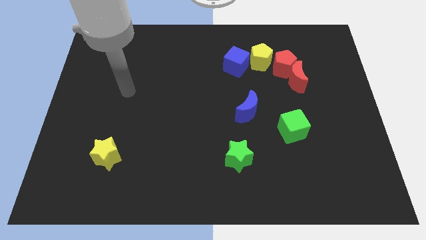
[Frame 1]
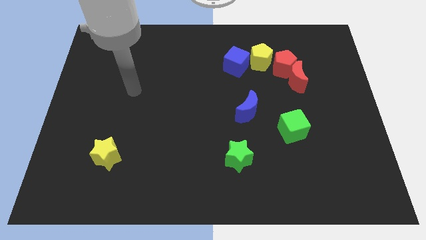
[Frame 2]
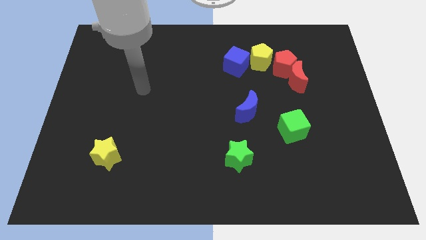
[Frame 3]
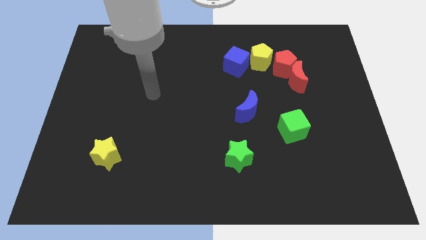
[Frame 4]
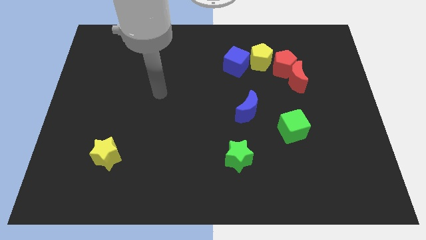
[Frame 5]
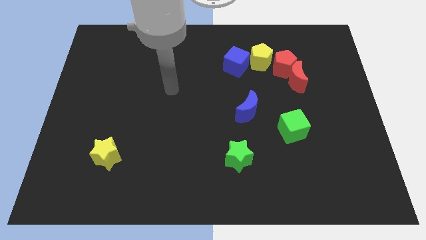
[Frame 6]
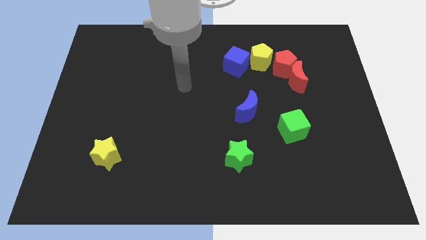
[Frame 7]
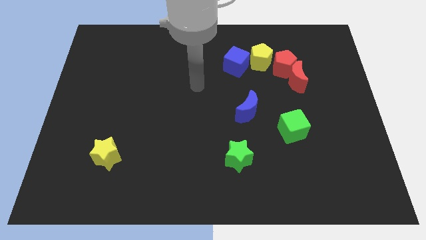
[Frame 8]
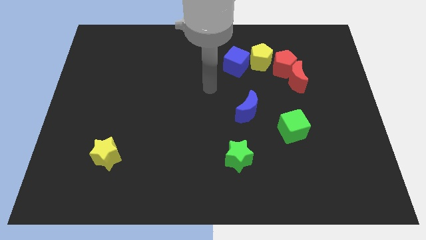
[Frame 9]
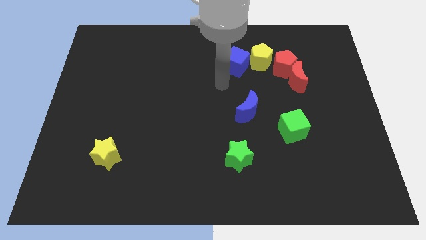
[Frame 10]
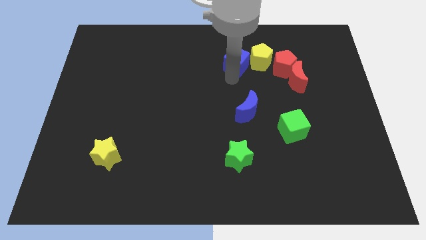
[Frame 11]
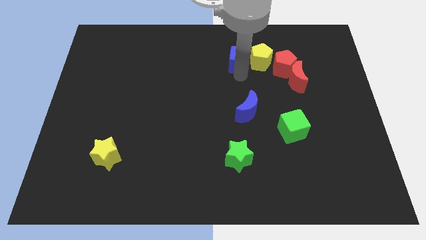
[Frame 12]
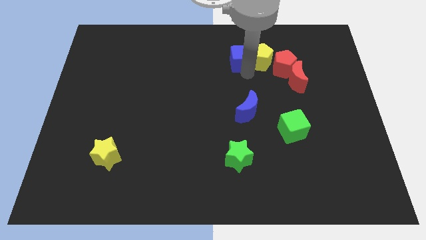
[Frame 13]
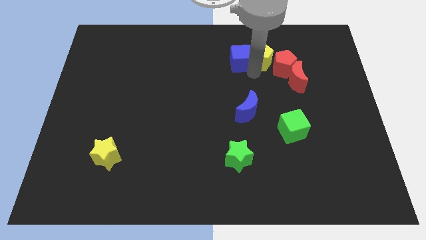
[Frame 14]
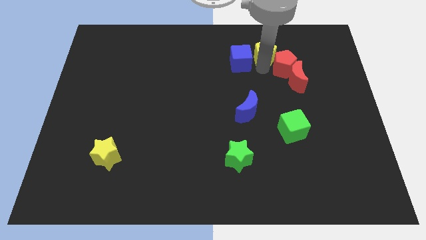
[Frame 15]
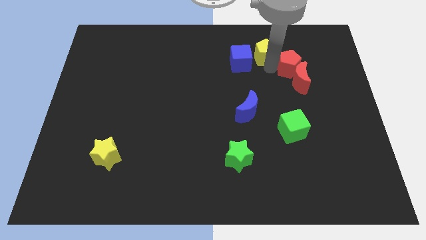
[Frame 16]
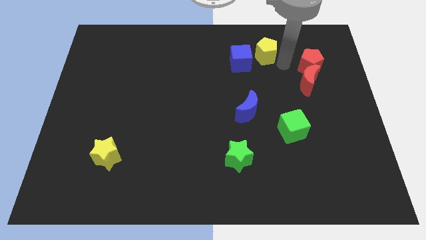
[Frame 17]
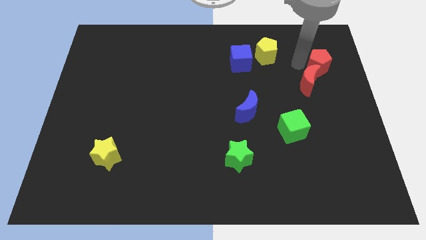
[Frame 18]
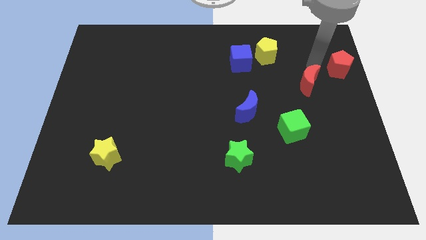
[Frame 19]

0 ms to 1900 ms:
pull the red moon apart from the red pentagon

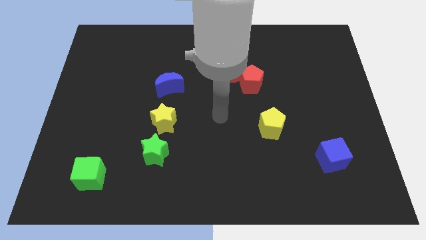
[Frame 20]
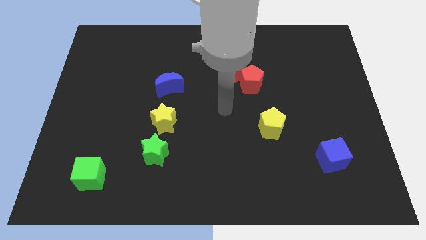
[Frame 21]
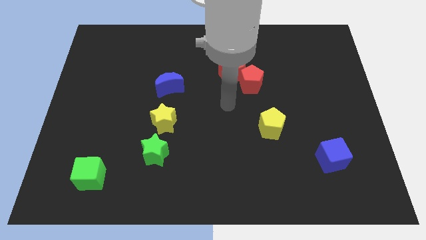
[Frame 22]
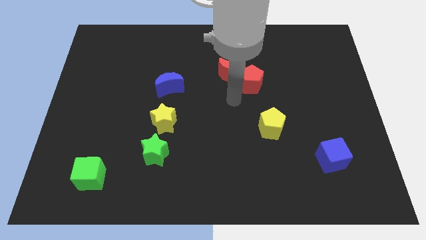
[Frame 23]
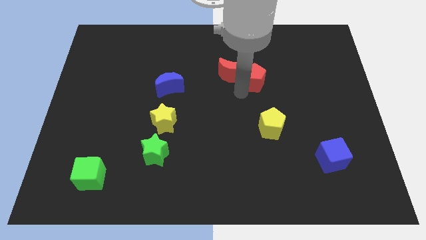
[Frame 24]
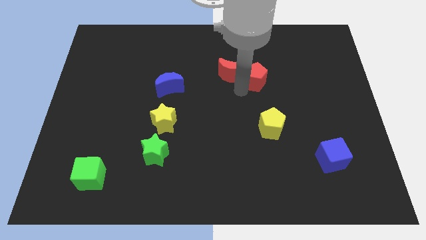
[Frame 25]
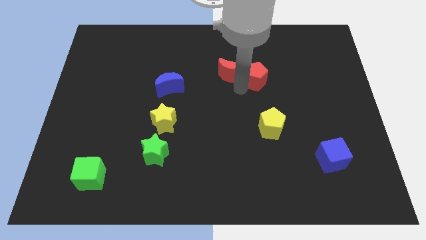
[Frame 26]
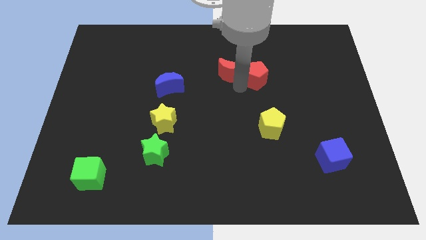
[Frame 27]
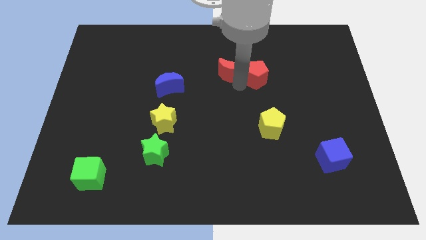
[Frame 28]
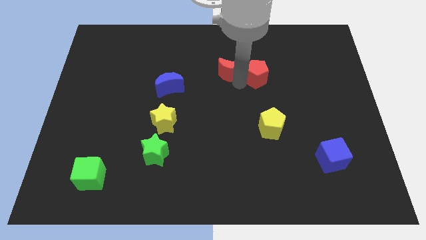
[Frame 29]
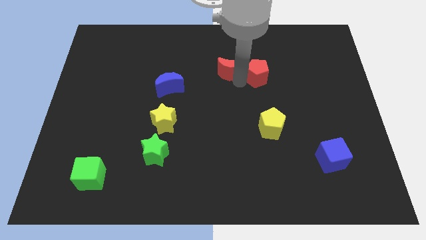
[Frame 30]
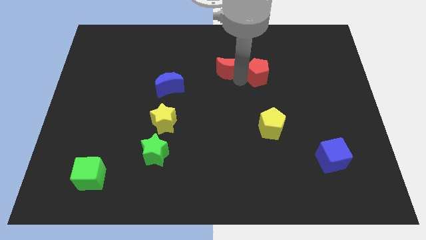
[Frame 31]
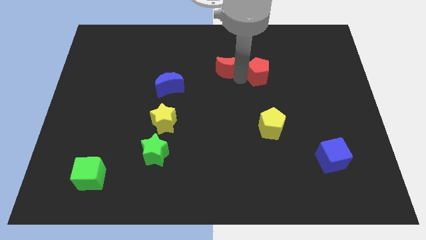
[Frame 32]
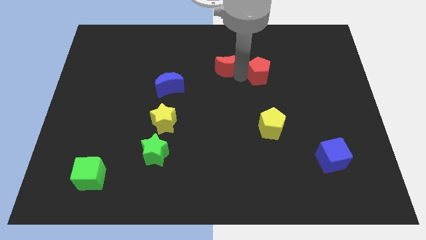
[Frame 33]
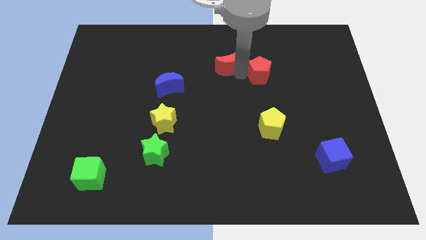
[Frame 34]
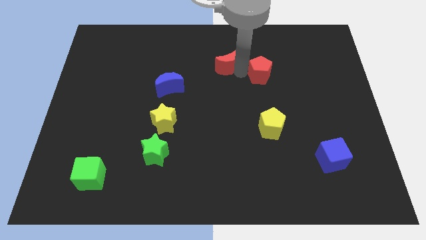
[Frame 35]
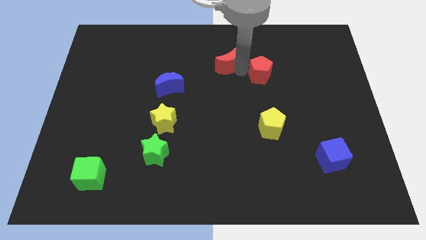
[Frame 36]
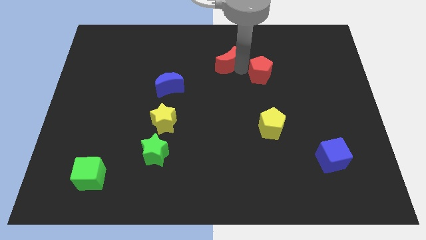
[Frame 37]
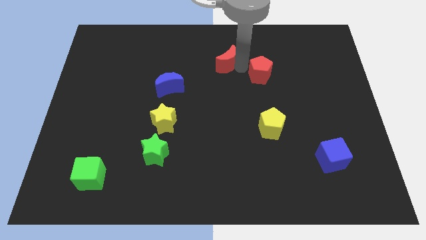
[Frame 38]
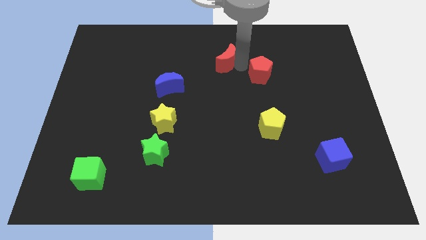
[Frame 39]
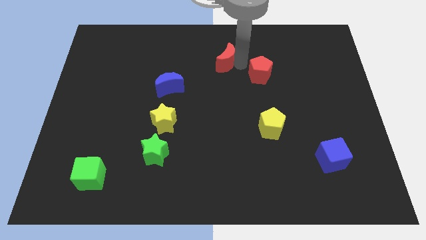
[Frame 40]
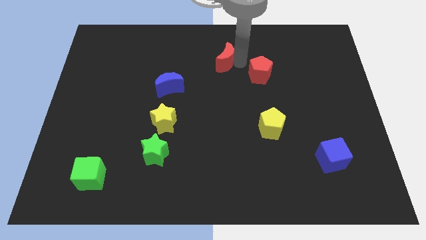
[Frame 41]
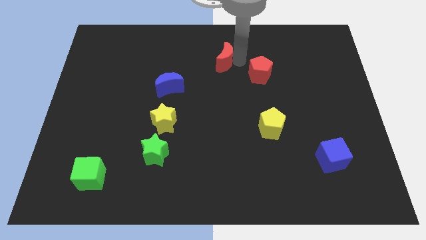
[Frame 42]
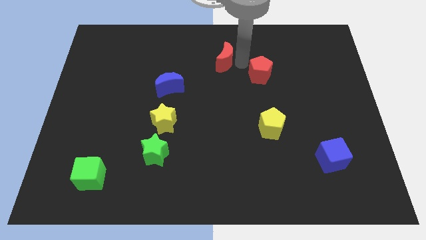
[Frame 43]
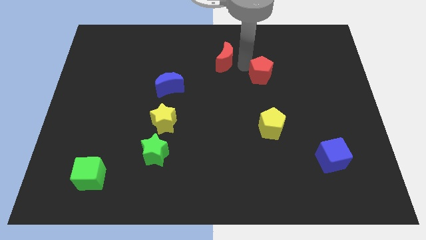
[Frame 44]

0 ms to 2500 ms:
move the red moon away from the red pentagon

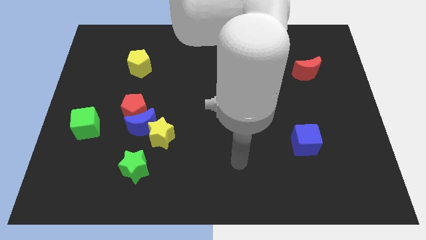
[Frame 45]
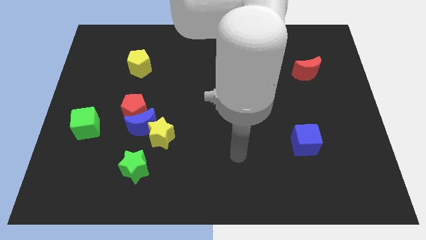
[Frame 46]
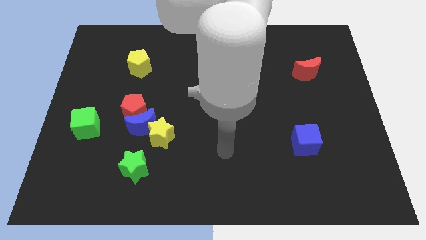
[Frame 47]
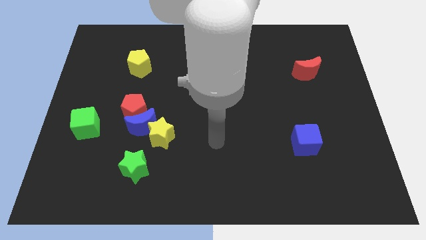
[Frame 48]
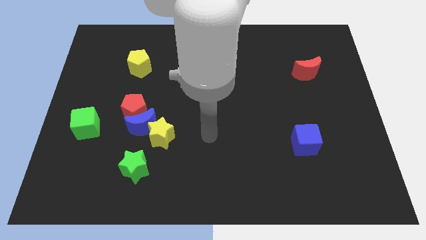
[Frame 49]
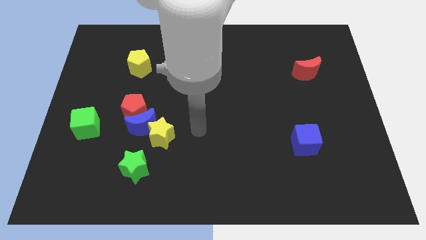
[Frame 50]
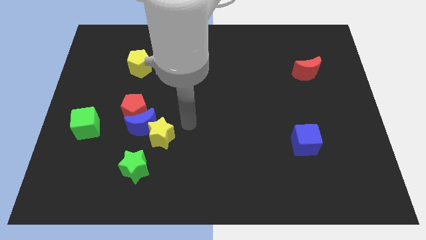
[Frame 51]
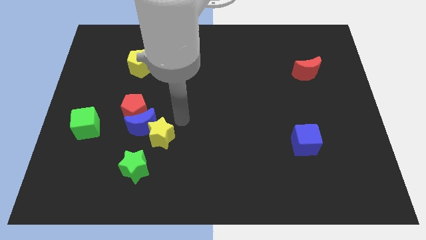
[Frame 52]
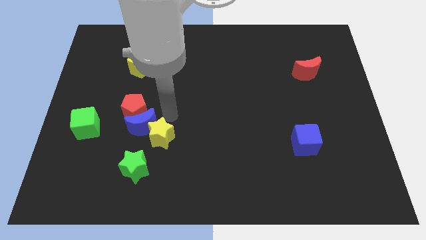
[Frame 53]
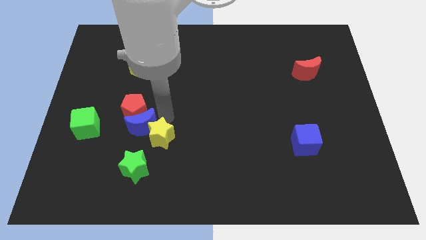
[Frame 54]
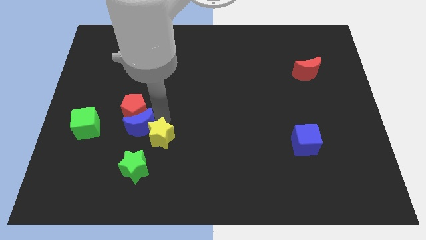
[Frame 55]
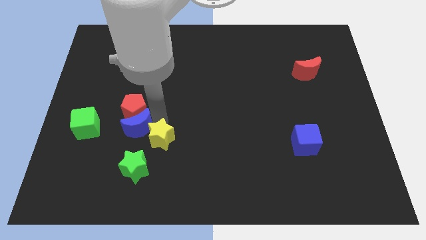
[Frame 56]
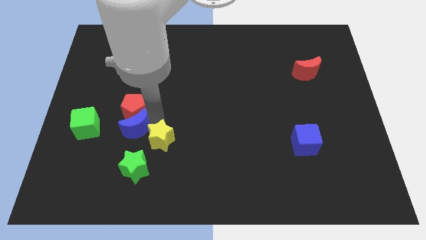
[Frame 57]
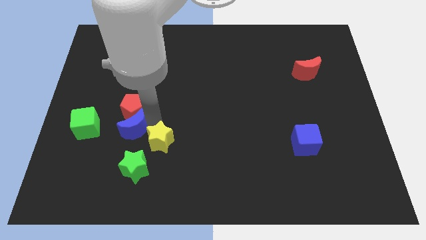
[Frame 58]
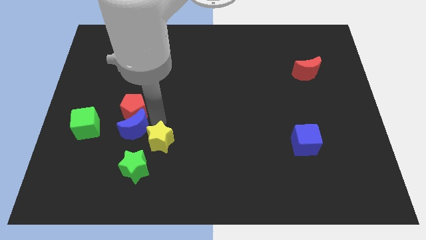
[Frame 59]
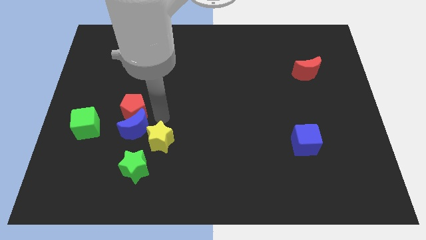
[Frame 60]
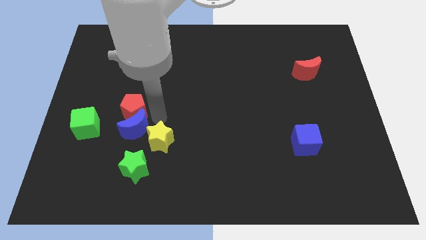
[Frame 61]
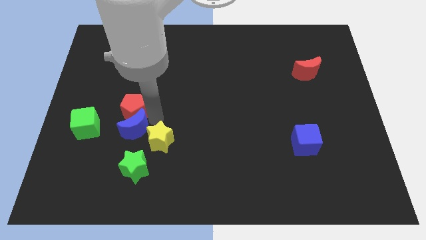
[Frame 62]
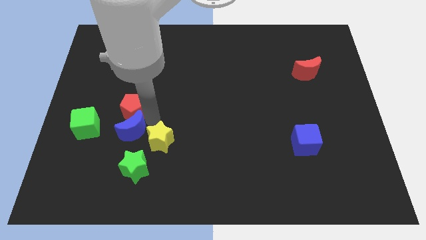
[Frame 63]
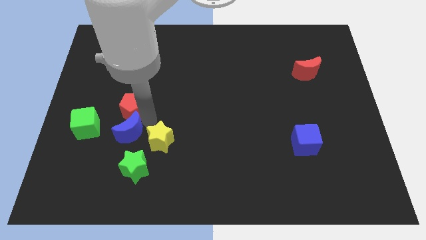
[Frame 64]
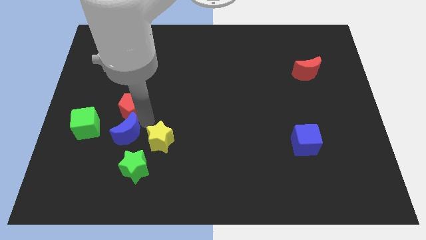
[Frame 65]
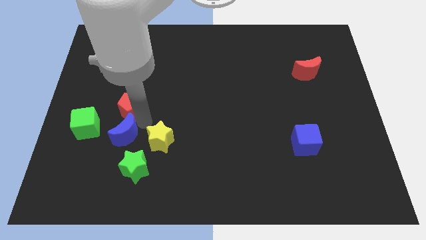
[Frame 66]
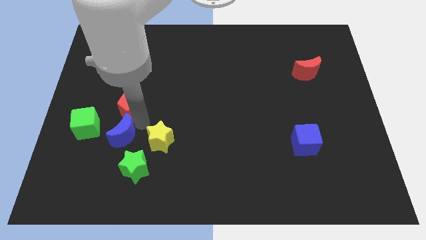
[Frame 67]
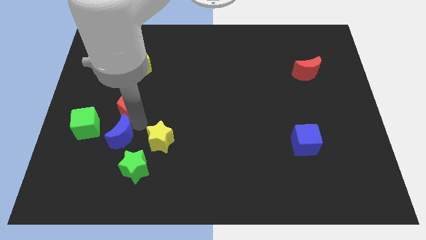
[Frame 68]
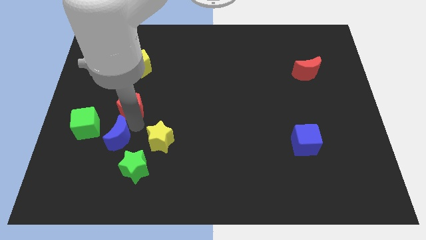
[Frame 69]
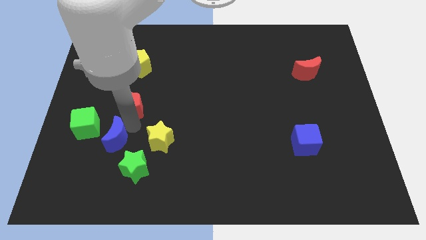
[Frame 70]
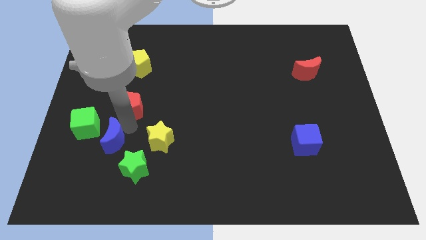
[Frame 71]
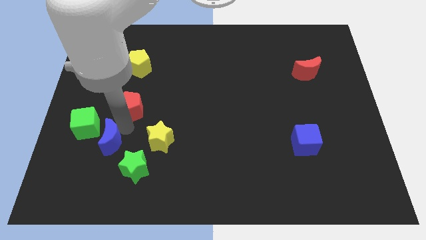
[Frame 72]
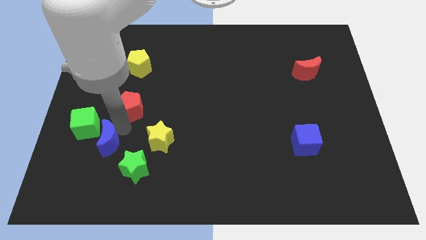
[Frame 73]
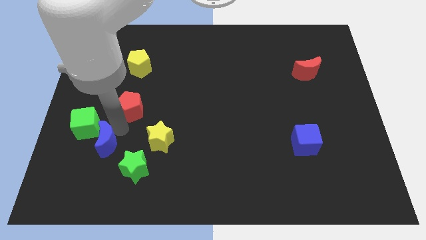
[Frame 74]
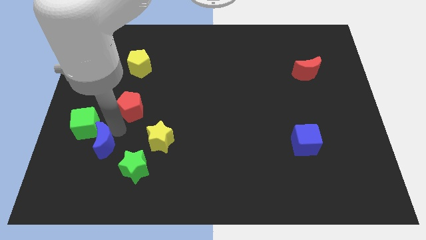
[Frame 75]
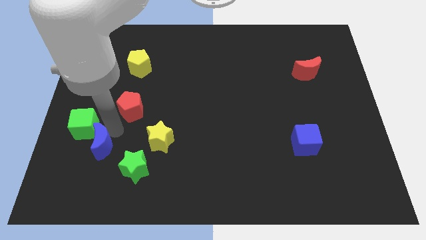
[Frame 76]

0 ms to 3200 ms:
pull the blue moon apart from the red pentagon and yellow star

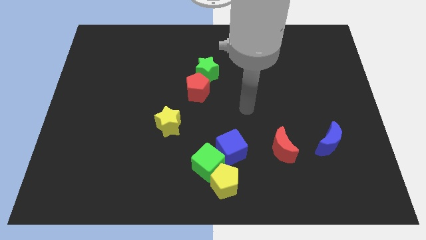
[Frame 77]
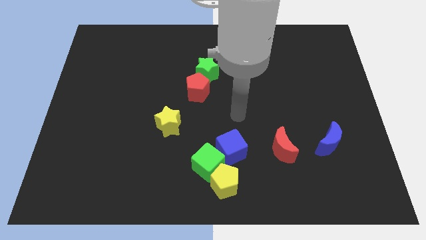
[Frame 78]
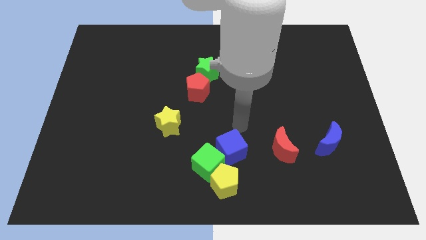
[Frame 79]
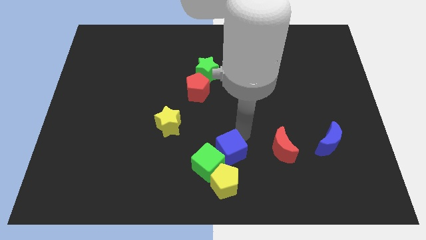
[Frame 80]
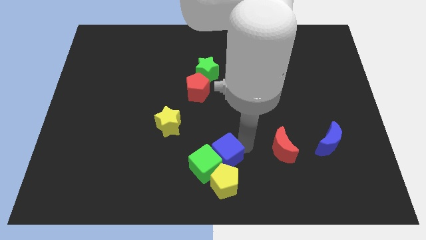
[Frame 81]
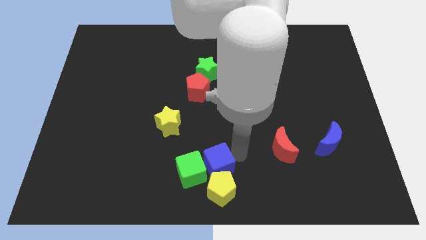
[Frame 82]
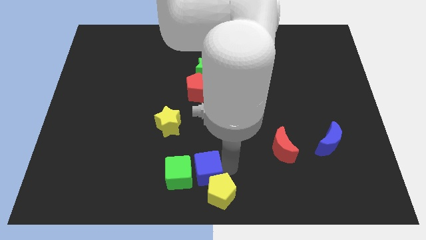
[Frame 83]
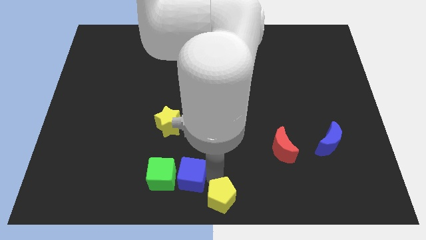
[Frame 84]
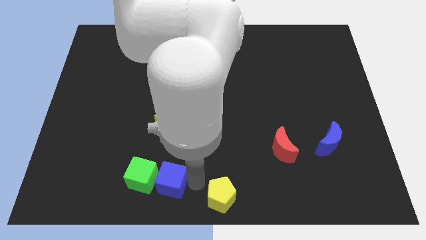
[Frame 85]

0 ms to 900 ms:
move the green cube away from the yellow pentagon and blue cube

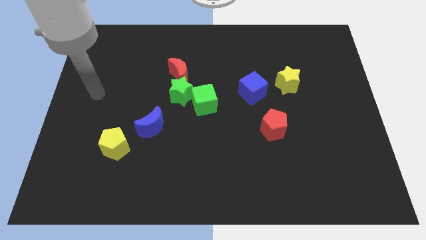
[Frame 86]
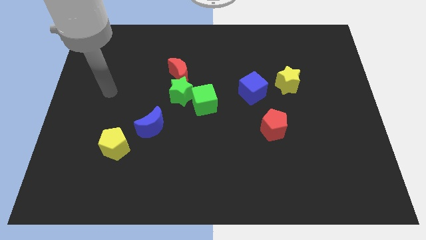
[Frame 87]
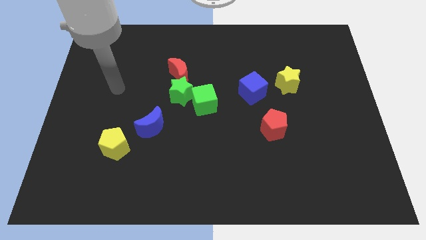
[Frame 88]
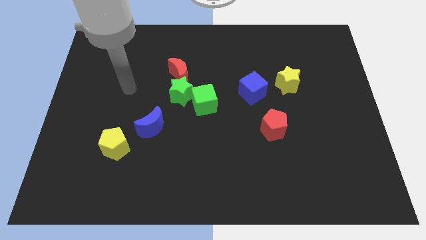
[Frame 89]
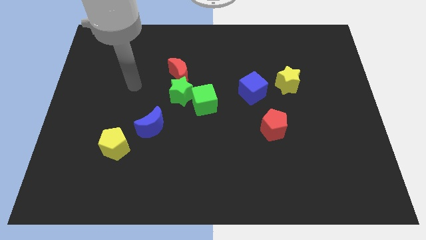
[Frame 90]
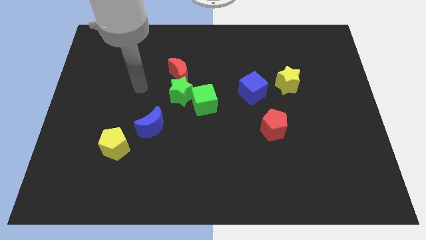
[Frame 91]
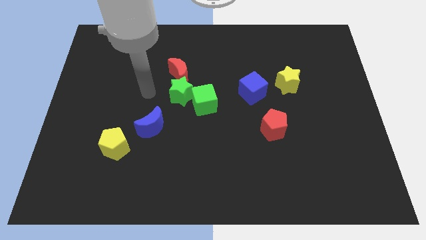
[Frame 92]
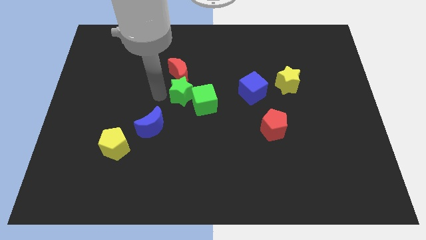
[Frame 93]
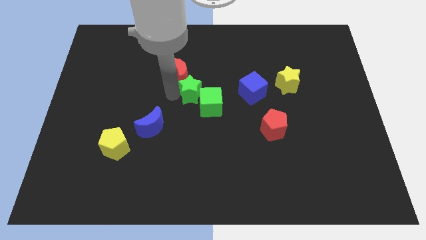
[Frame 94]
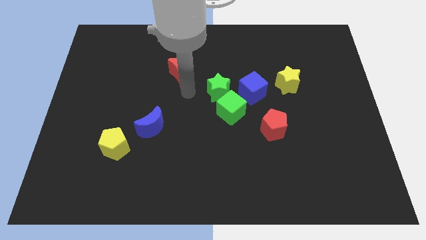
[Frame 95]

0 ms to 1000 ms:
pull the red moon apart from the green star
